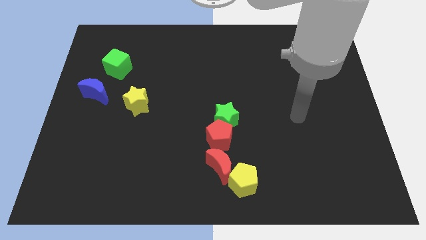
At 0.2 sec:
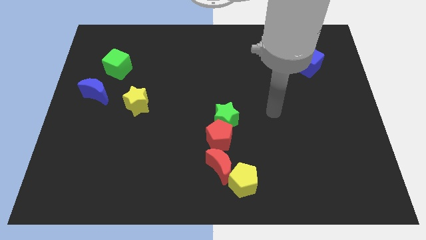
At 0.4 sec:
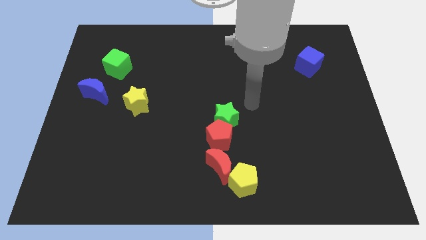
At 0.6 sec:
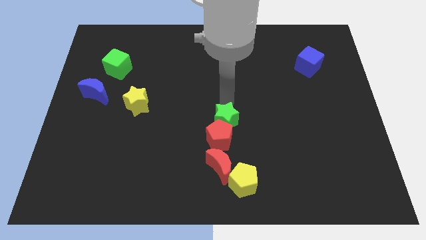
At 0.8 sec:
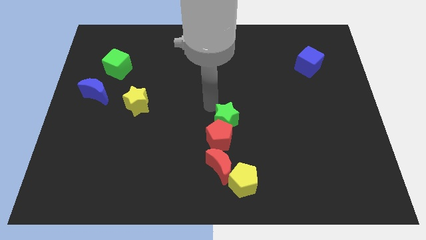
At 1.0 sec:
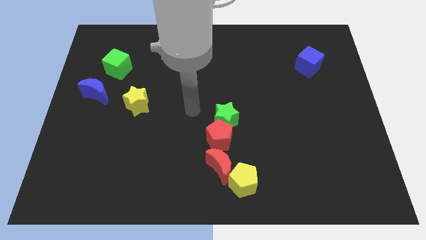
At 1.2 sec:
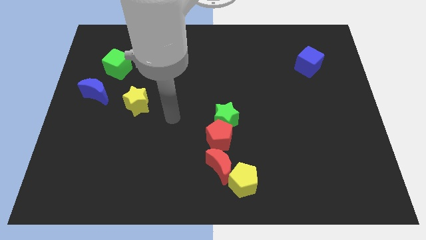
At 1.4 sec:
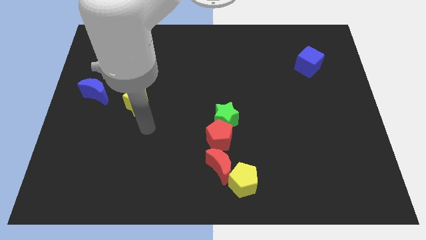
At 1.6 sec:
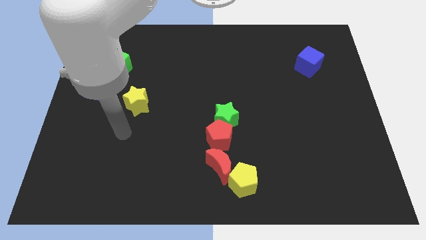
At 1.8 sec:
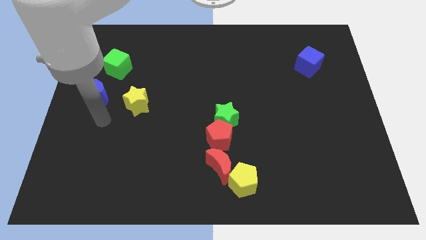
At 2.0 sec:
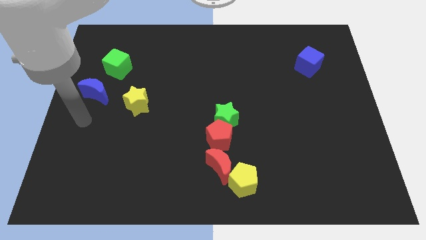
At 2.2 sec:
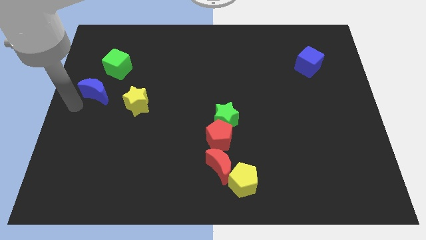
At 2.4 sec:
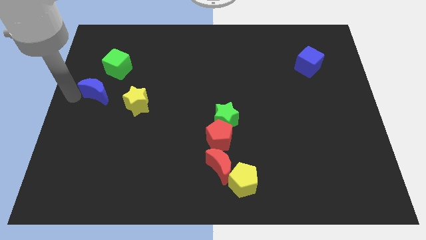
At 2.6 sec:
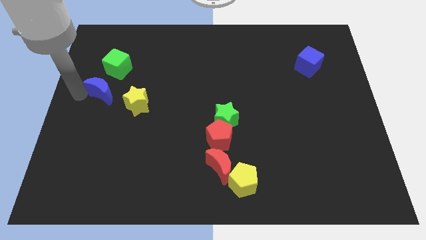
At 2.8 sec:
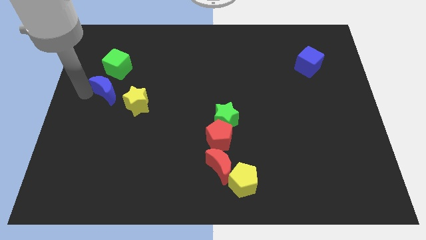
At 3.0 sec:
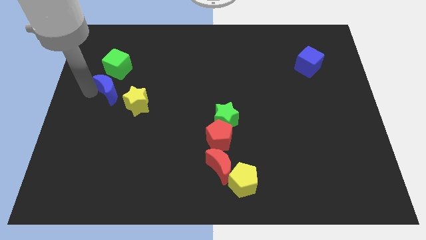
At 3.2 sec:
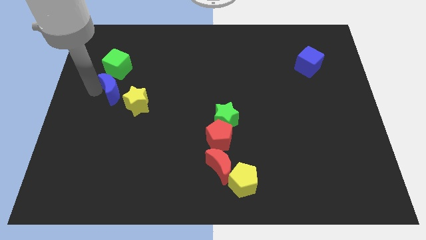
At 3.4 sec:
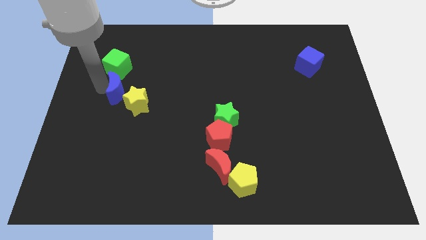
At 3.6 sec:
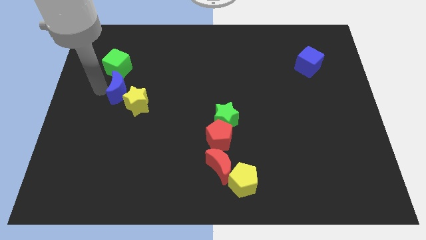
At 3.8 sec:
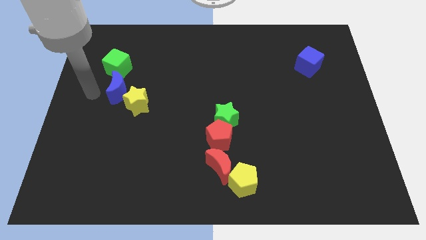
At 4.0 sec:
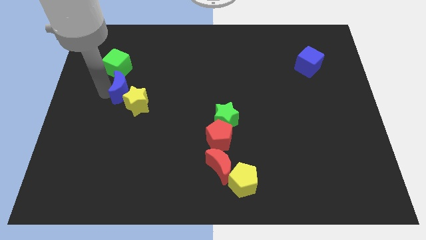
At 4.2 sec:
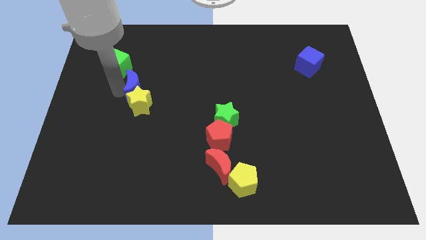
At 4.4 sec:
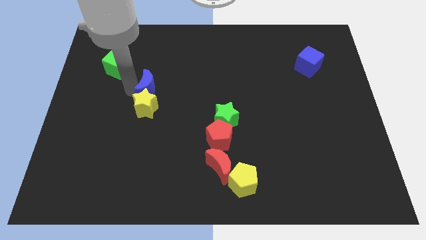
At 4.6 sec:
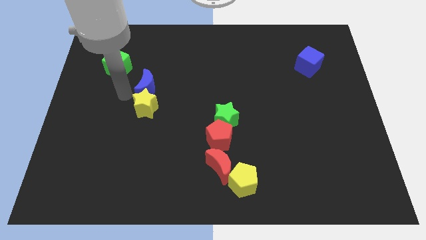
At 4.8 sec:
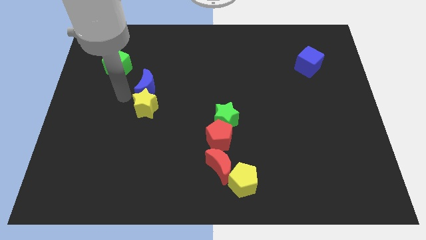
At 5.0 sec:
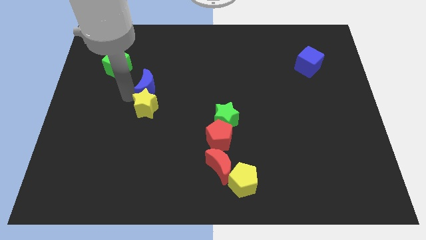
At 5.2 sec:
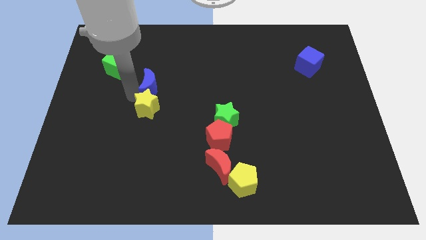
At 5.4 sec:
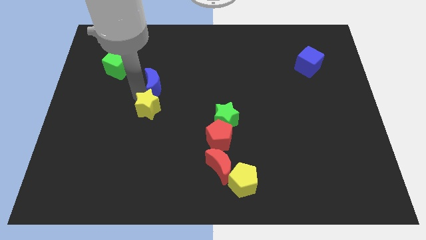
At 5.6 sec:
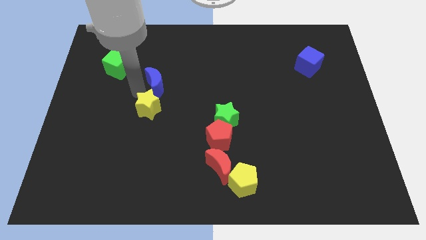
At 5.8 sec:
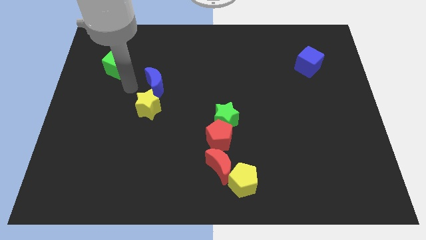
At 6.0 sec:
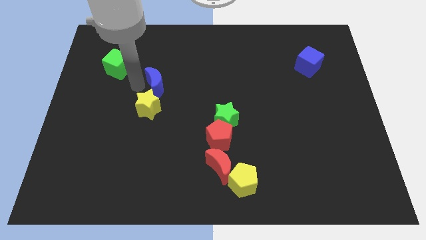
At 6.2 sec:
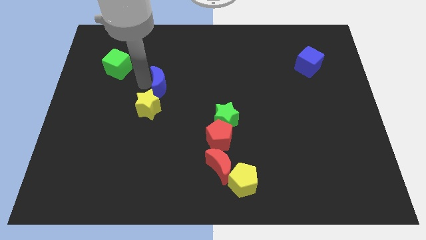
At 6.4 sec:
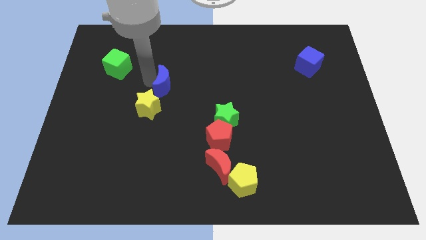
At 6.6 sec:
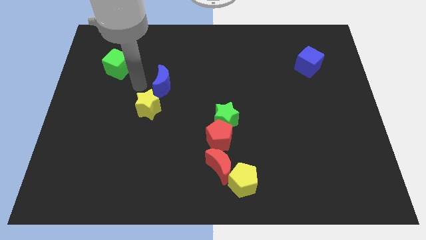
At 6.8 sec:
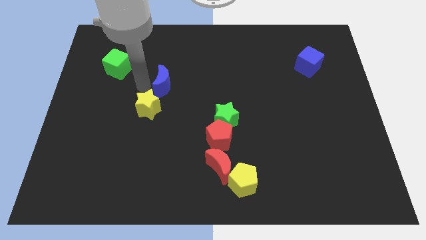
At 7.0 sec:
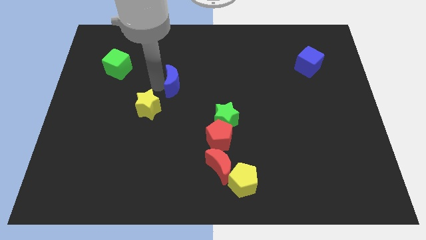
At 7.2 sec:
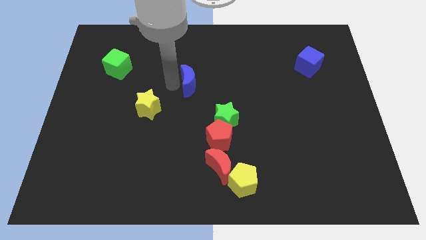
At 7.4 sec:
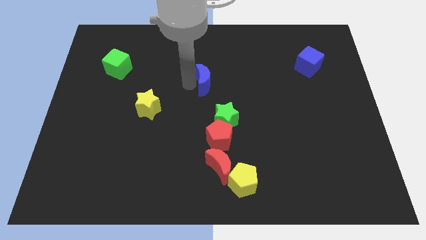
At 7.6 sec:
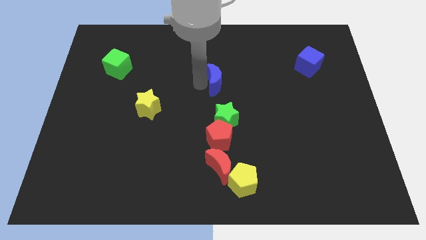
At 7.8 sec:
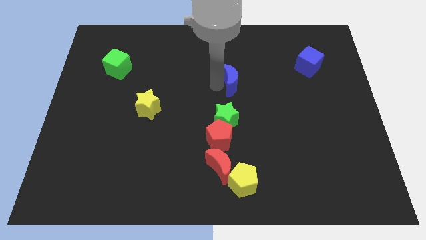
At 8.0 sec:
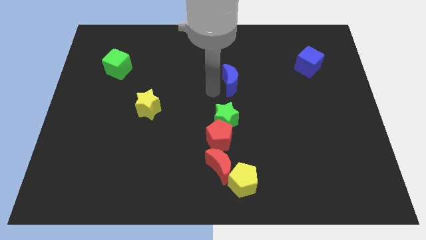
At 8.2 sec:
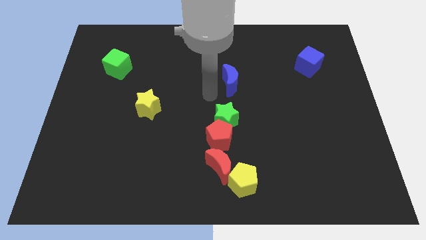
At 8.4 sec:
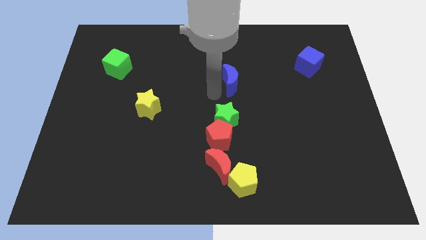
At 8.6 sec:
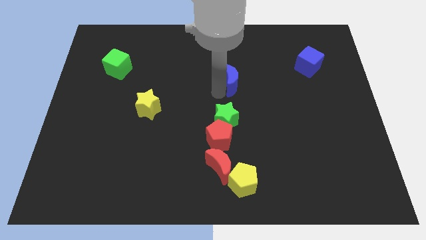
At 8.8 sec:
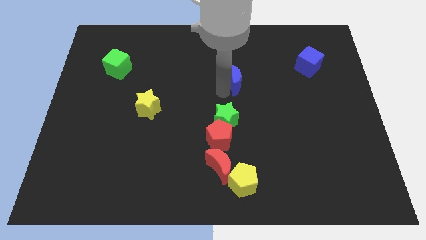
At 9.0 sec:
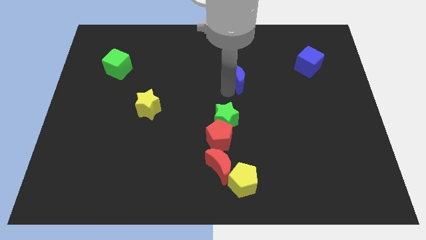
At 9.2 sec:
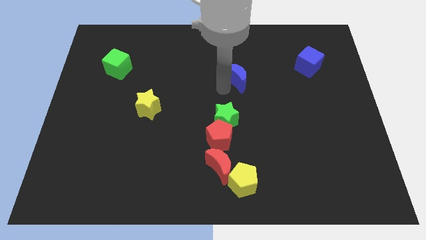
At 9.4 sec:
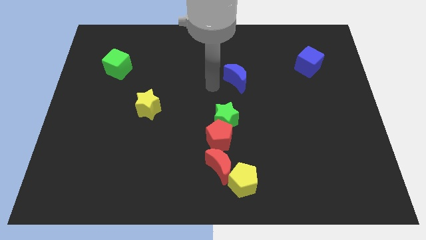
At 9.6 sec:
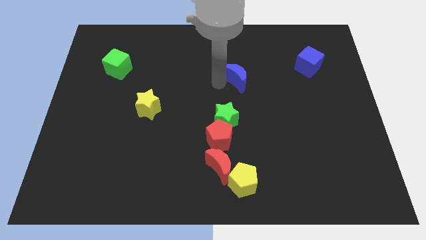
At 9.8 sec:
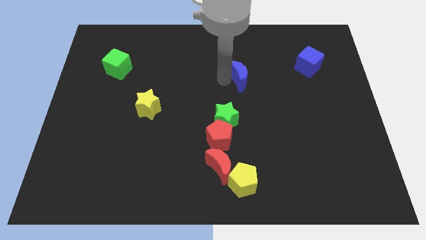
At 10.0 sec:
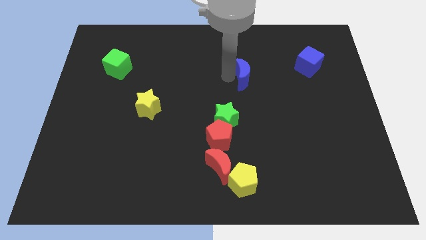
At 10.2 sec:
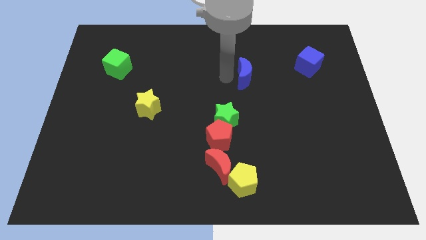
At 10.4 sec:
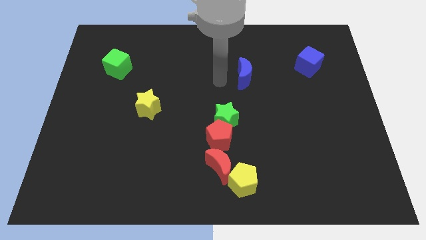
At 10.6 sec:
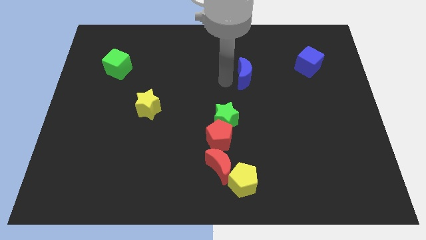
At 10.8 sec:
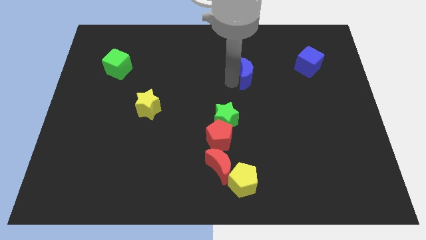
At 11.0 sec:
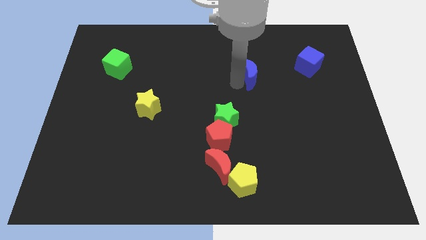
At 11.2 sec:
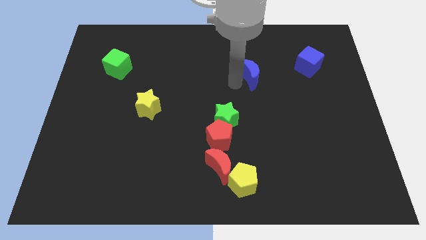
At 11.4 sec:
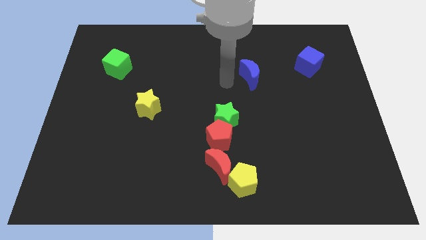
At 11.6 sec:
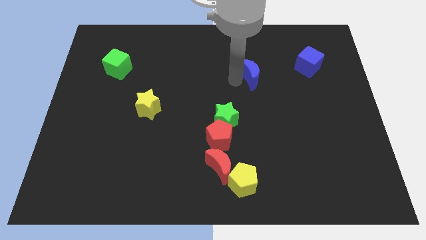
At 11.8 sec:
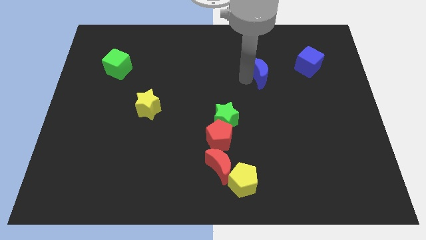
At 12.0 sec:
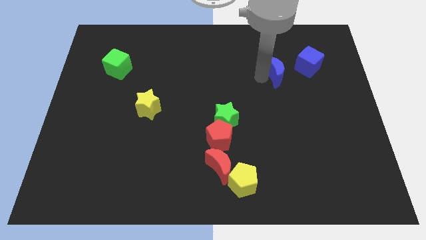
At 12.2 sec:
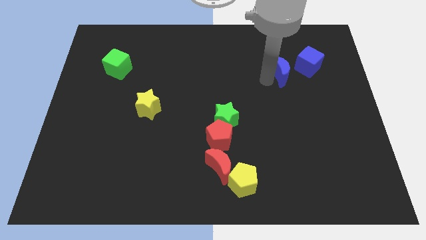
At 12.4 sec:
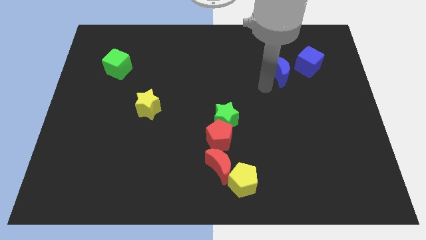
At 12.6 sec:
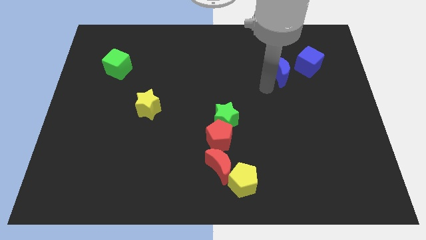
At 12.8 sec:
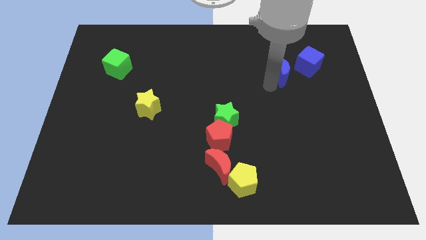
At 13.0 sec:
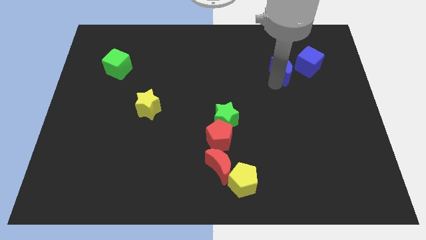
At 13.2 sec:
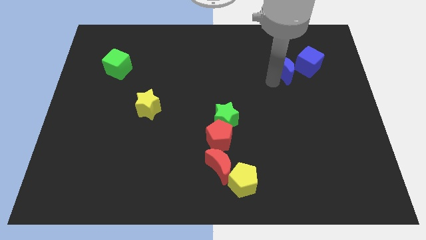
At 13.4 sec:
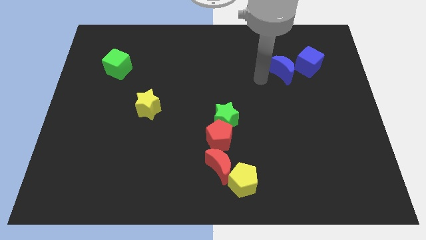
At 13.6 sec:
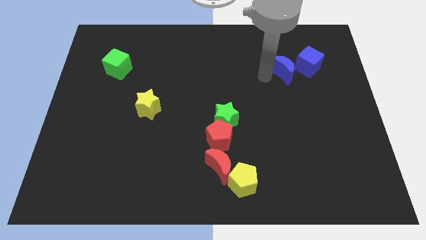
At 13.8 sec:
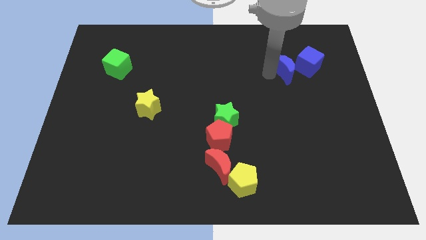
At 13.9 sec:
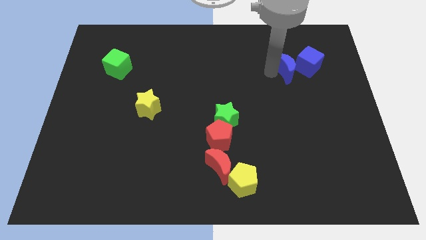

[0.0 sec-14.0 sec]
put the blue moon towards the blue cube
